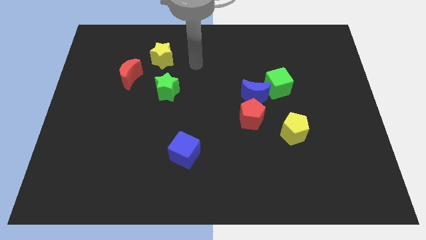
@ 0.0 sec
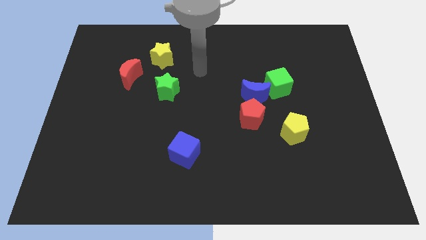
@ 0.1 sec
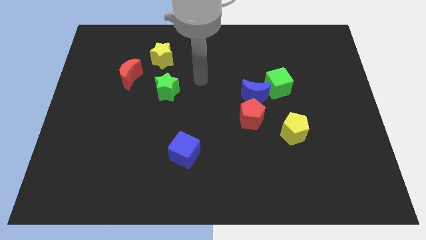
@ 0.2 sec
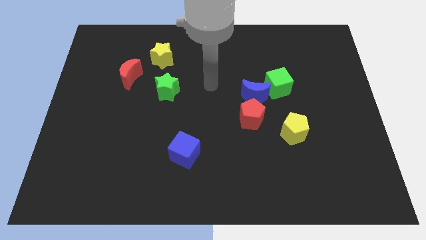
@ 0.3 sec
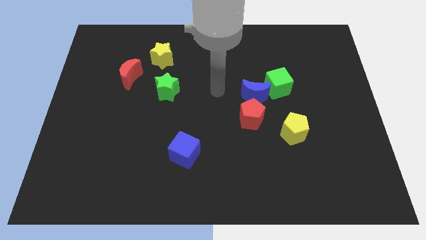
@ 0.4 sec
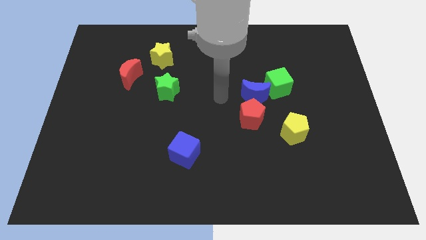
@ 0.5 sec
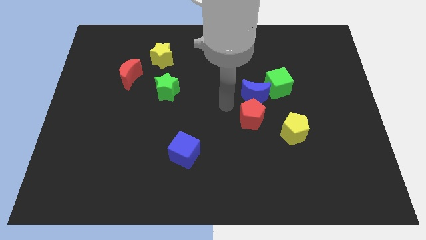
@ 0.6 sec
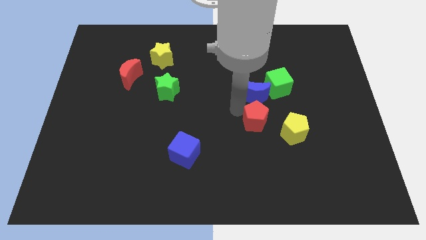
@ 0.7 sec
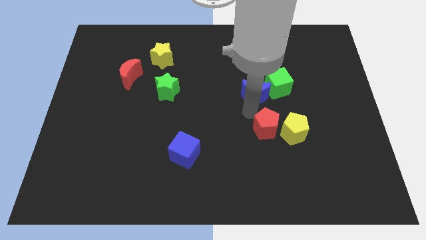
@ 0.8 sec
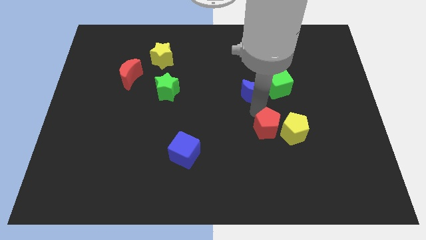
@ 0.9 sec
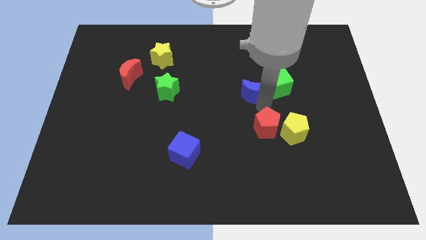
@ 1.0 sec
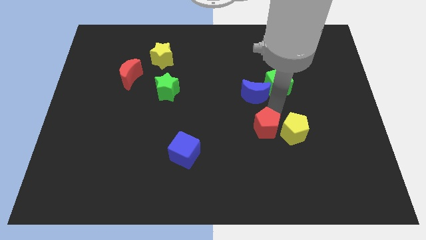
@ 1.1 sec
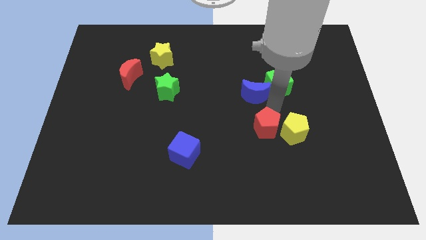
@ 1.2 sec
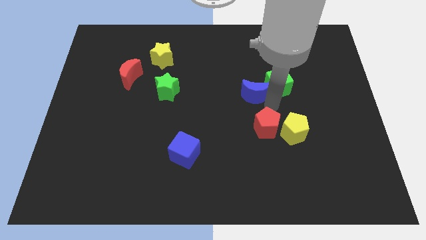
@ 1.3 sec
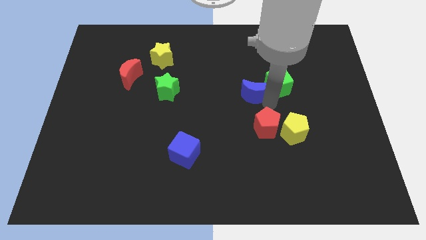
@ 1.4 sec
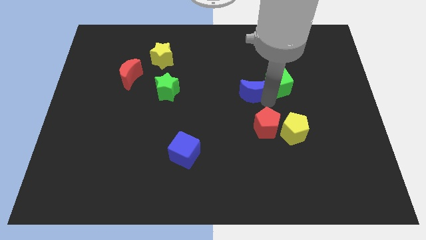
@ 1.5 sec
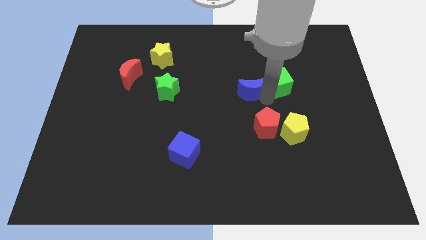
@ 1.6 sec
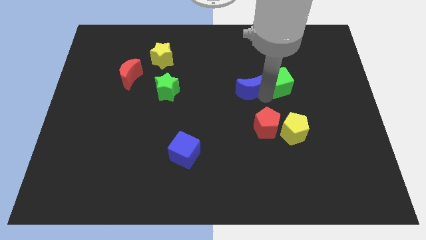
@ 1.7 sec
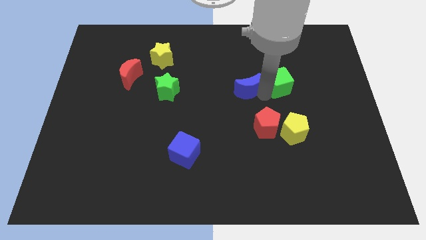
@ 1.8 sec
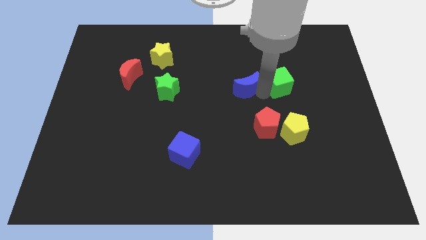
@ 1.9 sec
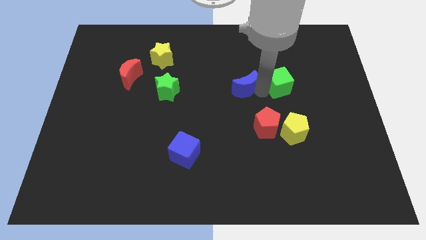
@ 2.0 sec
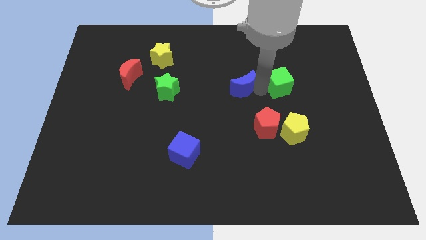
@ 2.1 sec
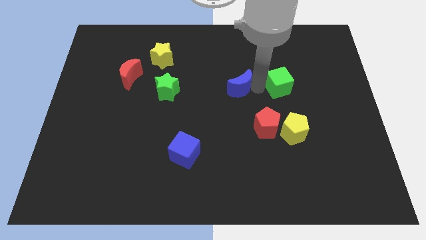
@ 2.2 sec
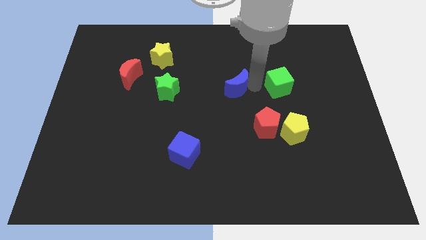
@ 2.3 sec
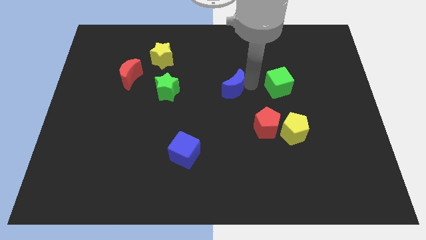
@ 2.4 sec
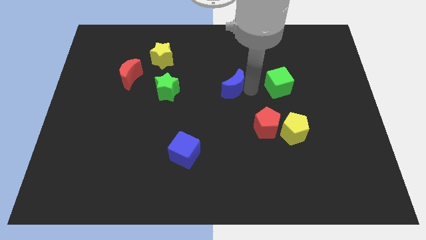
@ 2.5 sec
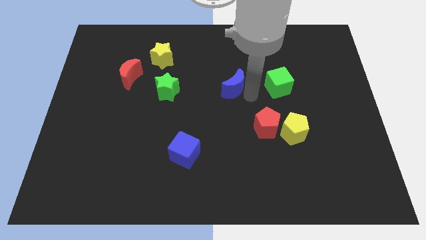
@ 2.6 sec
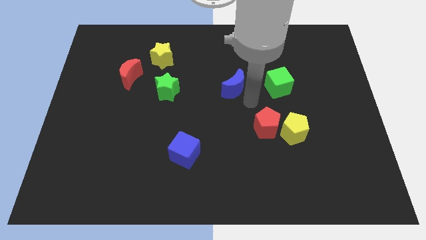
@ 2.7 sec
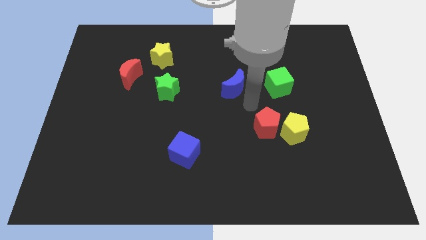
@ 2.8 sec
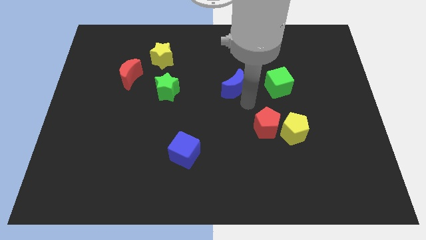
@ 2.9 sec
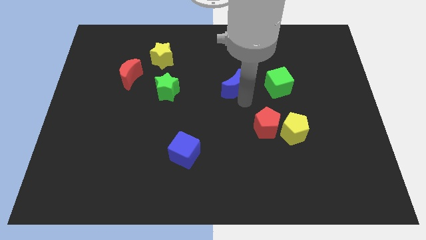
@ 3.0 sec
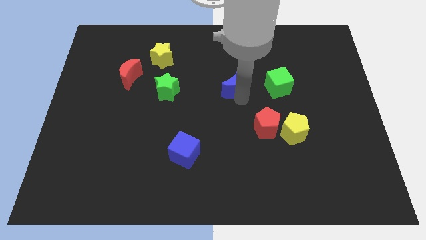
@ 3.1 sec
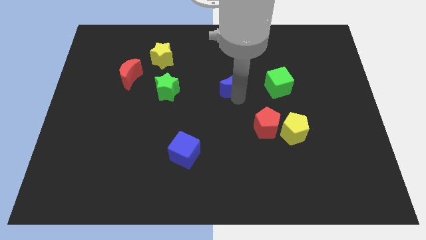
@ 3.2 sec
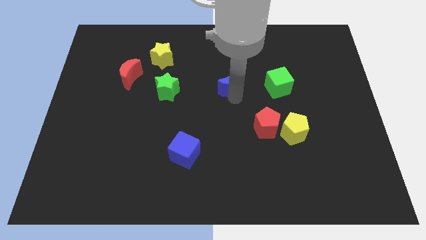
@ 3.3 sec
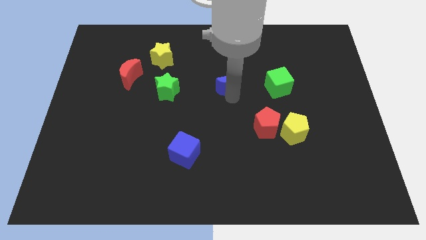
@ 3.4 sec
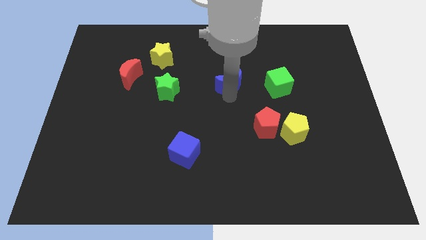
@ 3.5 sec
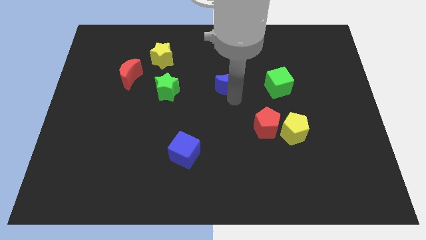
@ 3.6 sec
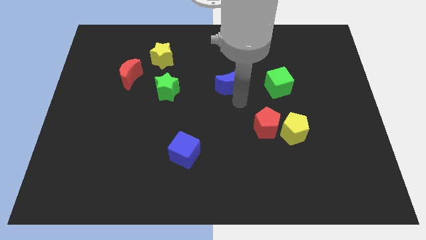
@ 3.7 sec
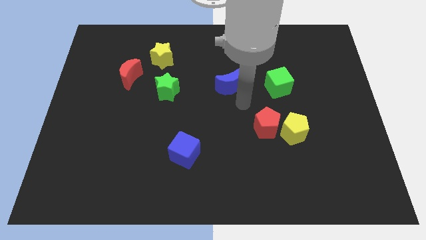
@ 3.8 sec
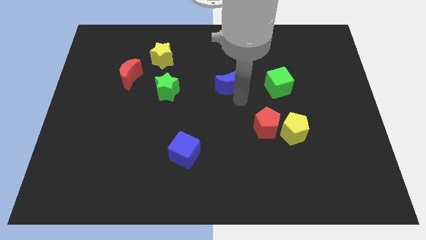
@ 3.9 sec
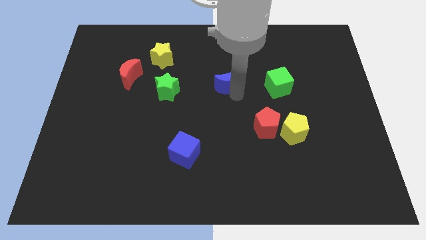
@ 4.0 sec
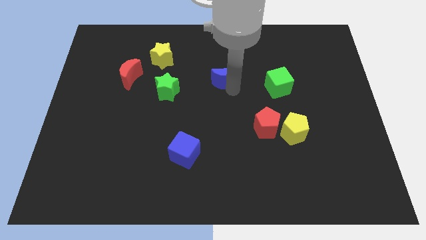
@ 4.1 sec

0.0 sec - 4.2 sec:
push the blue moon up and to the left a little bit

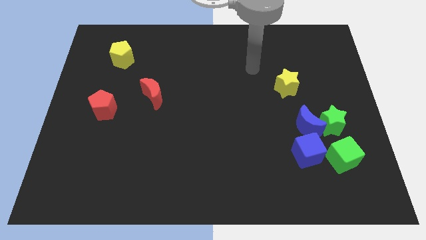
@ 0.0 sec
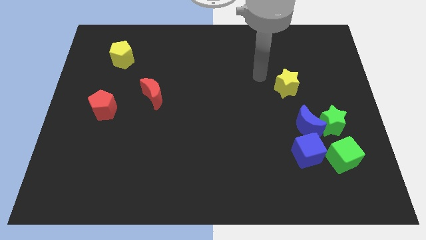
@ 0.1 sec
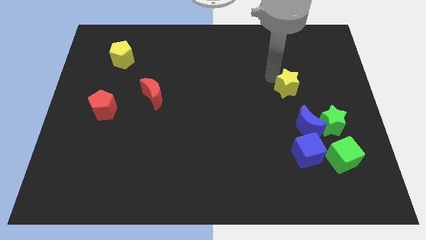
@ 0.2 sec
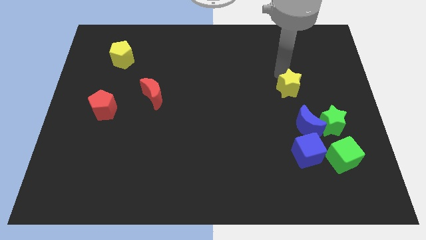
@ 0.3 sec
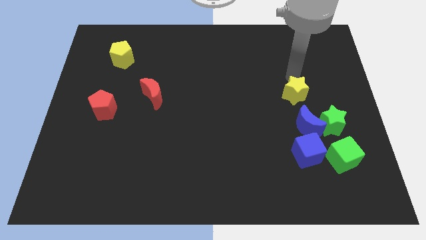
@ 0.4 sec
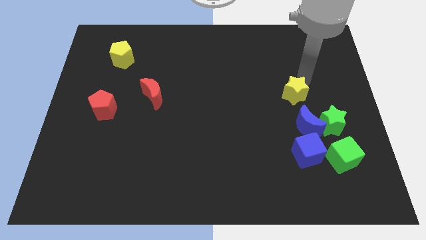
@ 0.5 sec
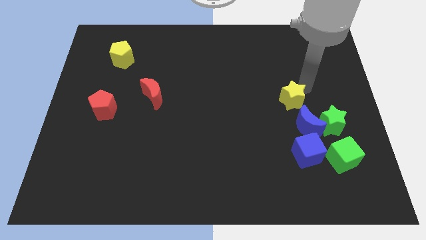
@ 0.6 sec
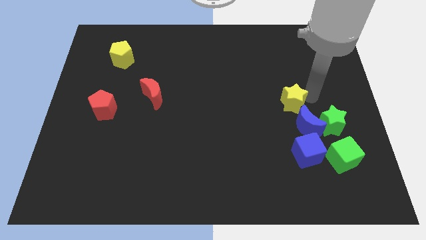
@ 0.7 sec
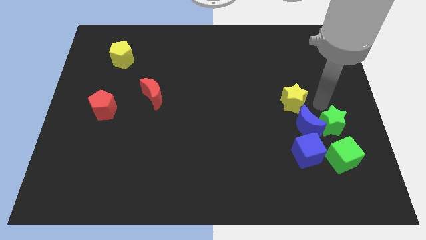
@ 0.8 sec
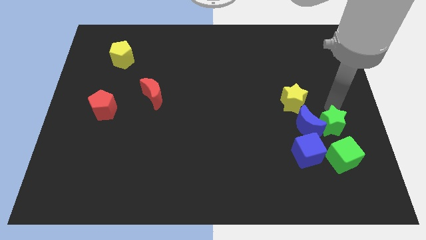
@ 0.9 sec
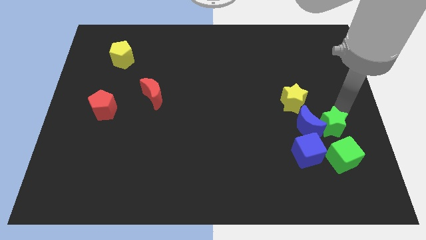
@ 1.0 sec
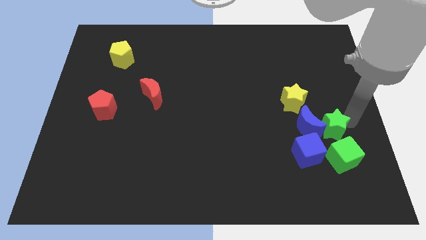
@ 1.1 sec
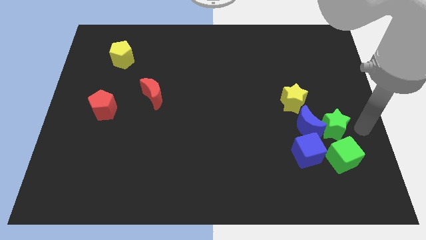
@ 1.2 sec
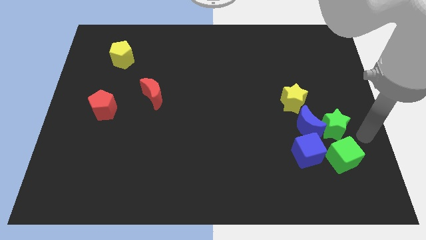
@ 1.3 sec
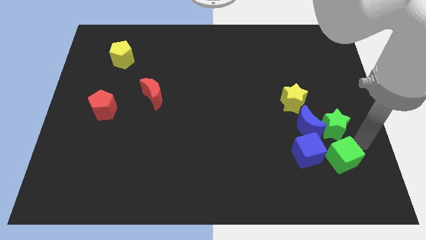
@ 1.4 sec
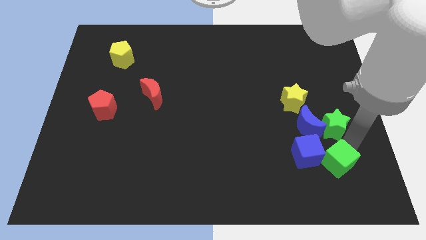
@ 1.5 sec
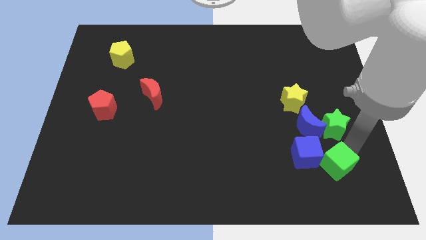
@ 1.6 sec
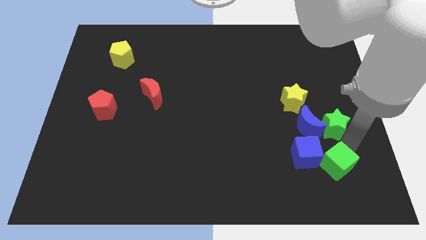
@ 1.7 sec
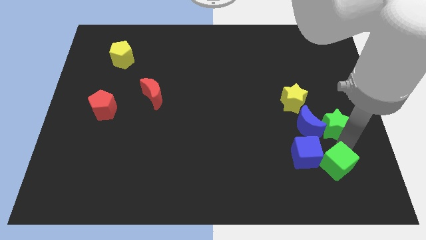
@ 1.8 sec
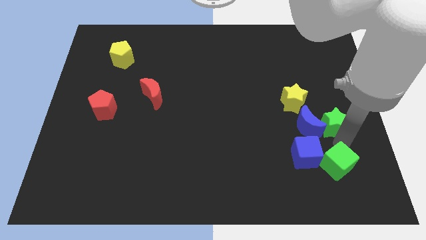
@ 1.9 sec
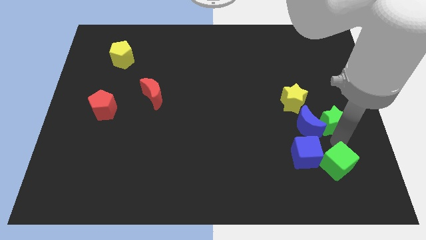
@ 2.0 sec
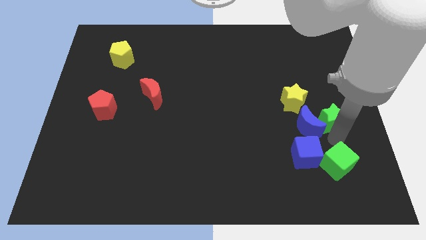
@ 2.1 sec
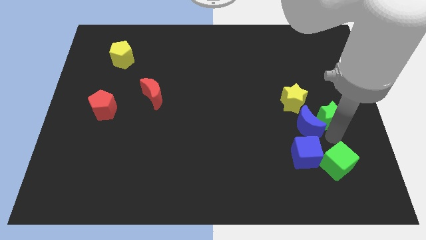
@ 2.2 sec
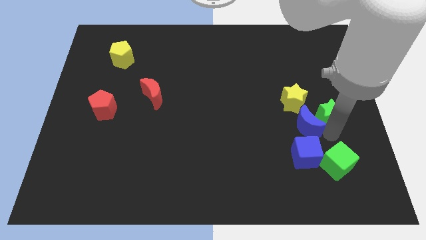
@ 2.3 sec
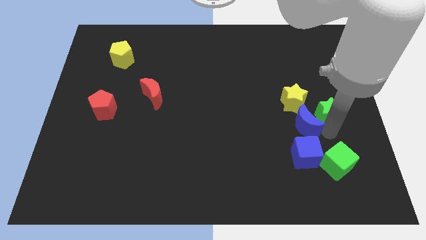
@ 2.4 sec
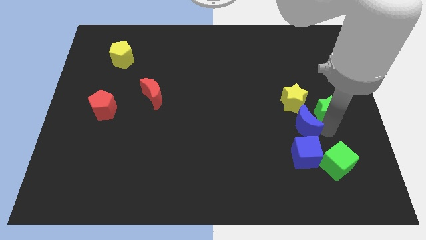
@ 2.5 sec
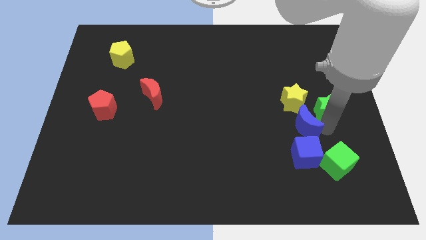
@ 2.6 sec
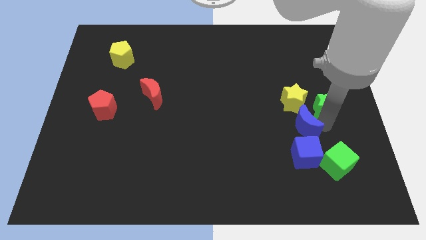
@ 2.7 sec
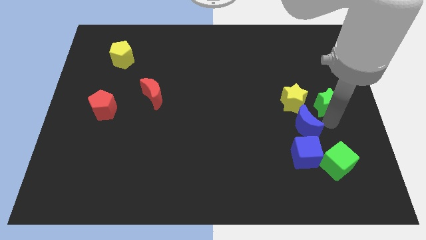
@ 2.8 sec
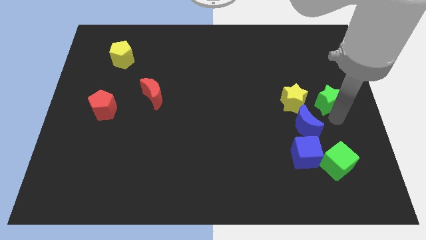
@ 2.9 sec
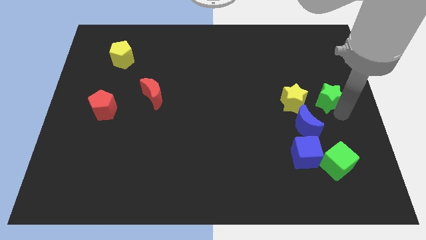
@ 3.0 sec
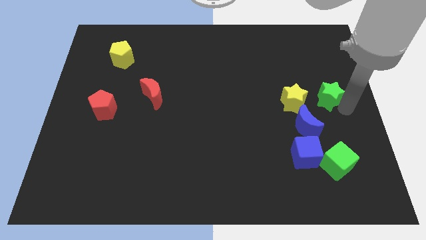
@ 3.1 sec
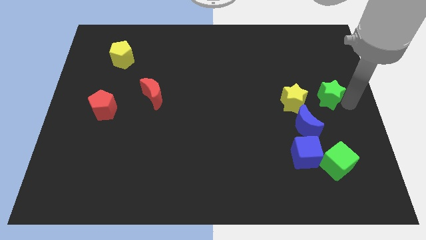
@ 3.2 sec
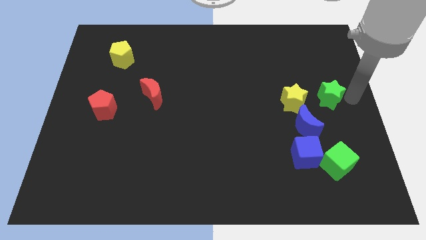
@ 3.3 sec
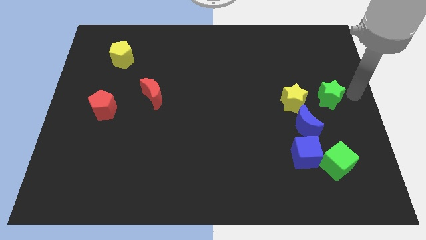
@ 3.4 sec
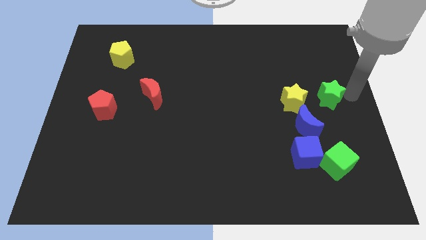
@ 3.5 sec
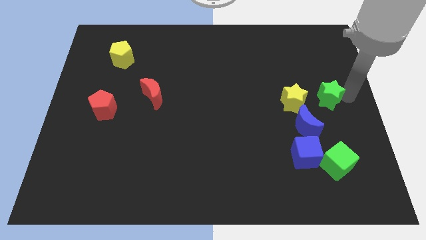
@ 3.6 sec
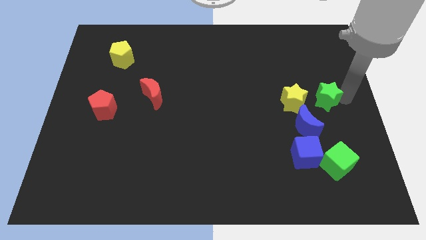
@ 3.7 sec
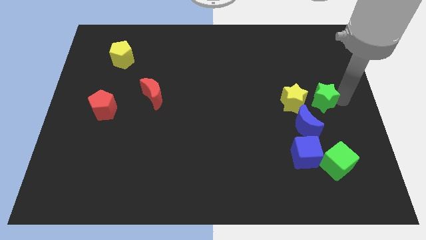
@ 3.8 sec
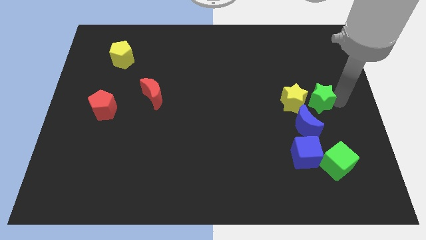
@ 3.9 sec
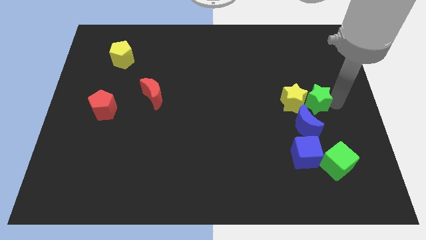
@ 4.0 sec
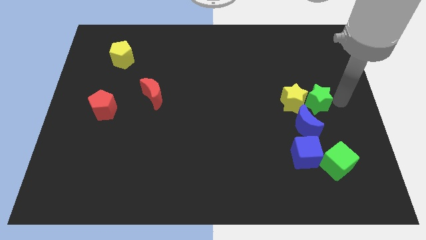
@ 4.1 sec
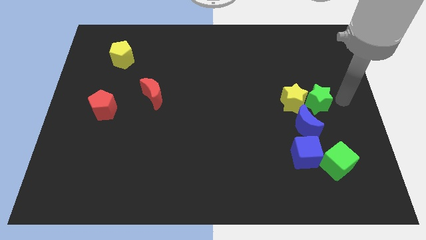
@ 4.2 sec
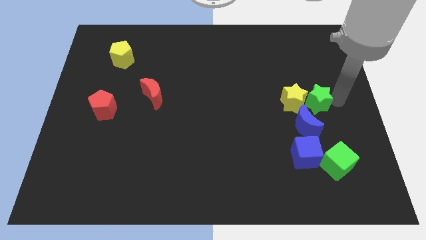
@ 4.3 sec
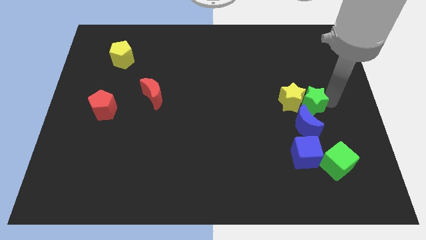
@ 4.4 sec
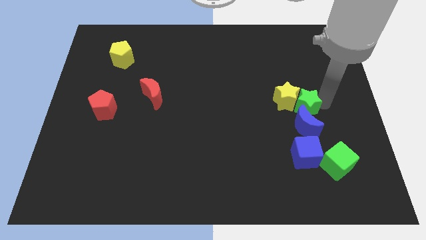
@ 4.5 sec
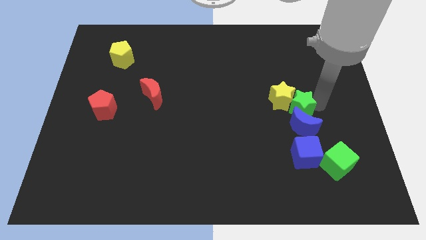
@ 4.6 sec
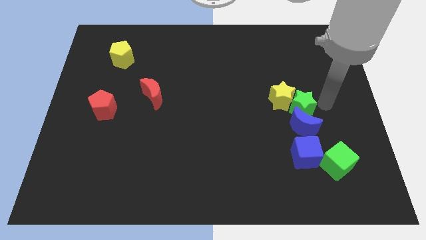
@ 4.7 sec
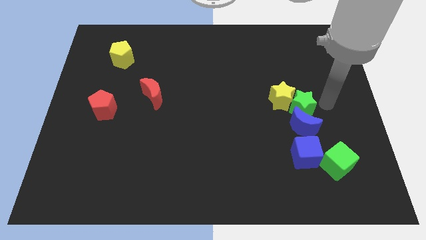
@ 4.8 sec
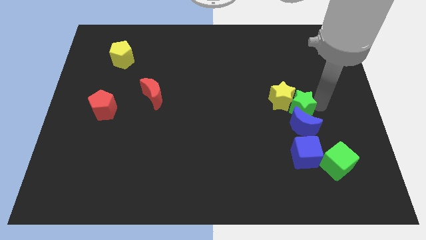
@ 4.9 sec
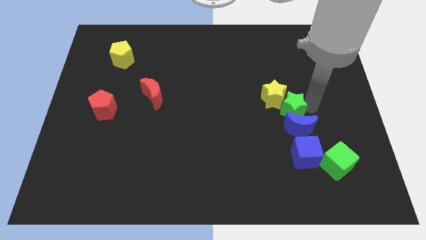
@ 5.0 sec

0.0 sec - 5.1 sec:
slightly move the green star left
